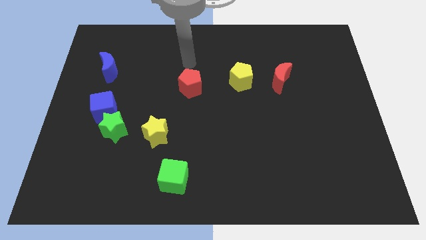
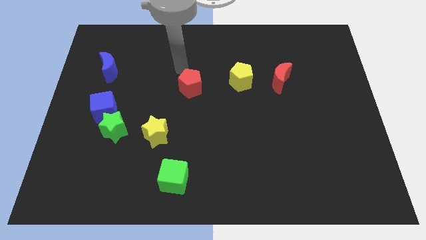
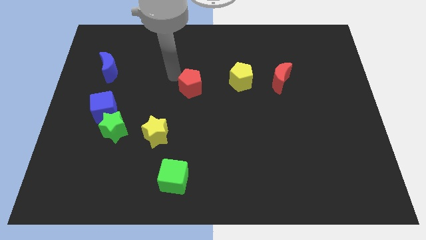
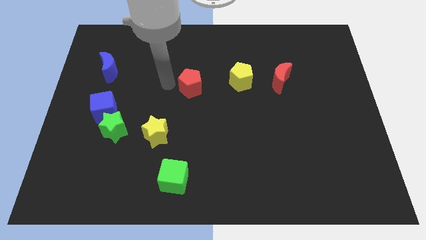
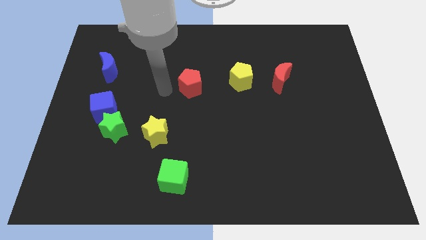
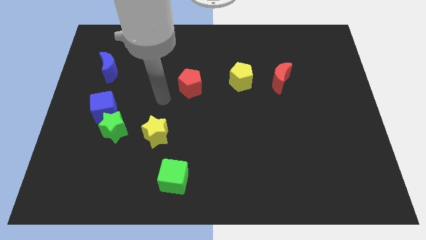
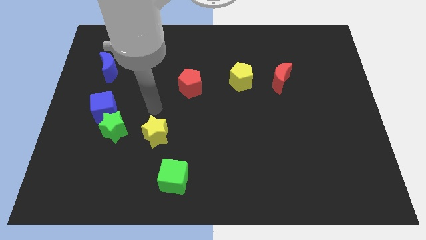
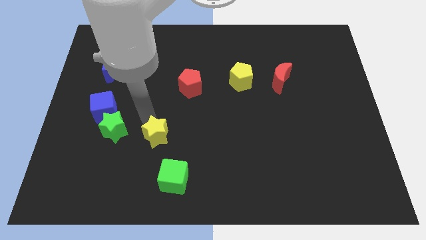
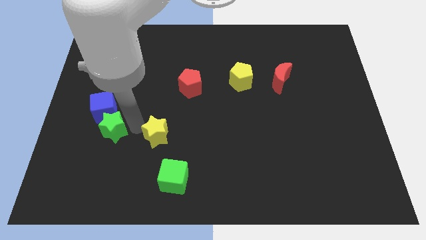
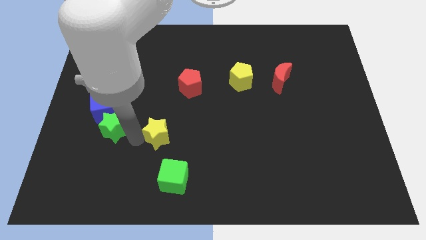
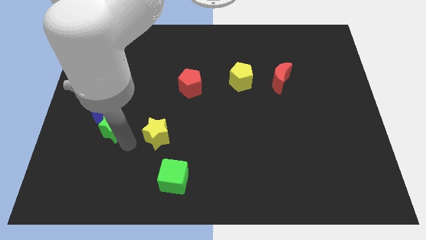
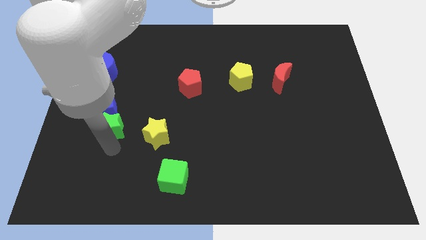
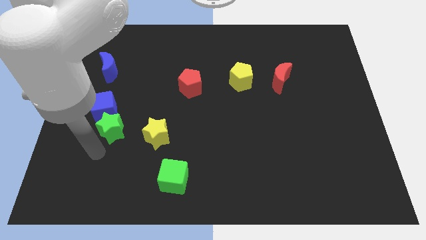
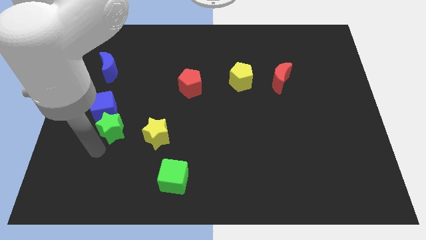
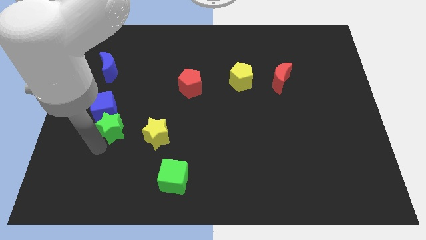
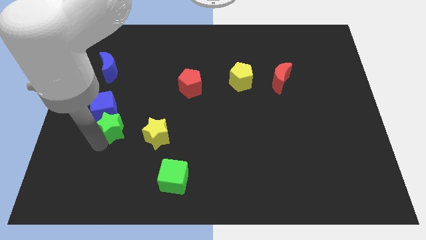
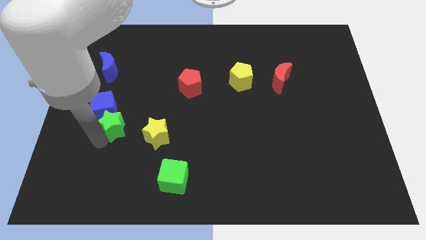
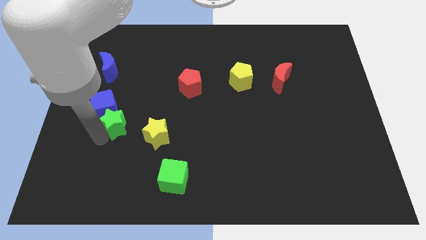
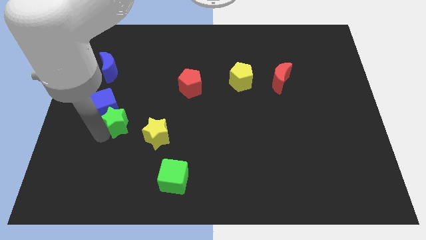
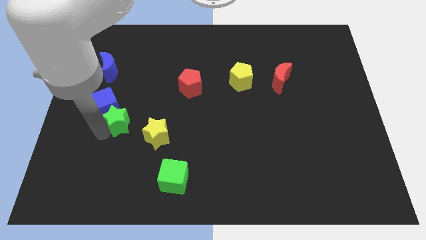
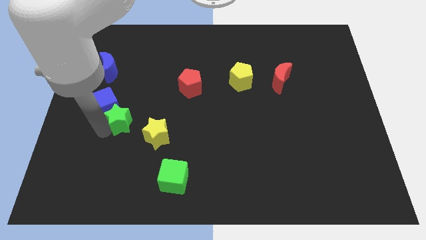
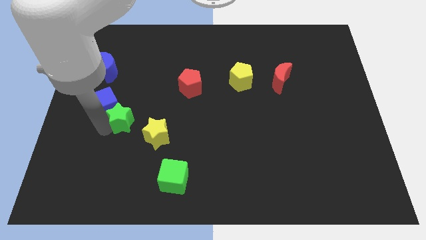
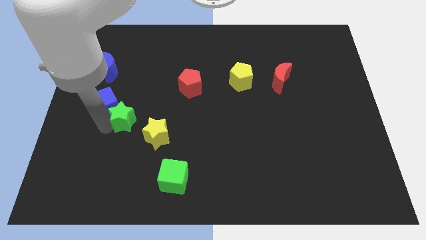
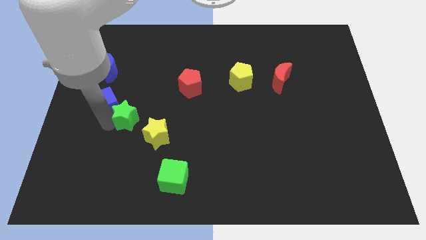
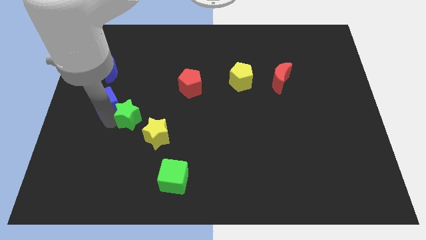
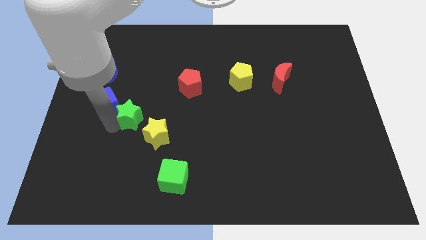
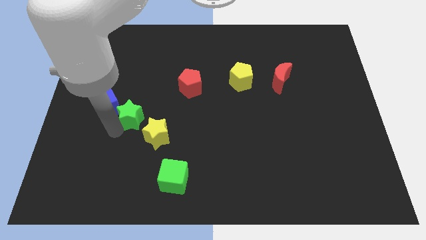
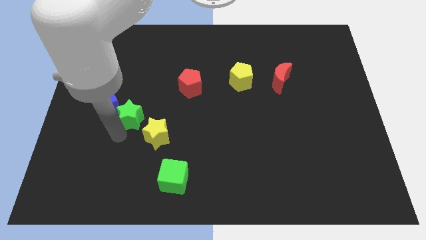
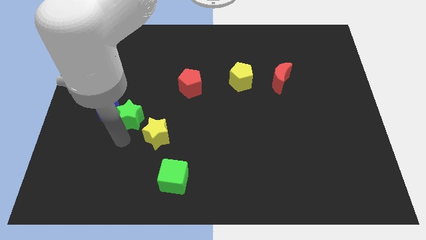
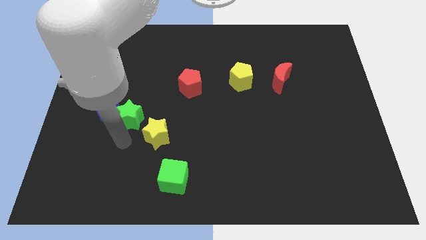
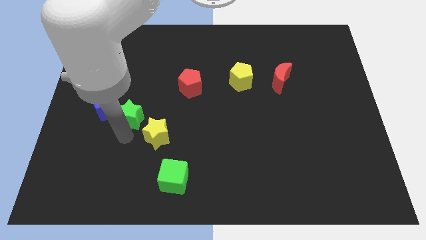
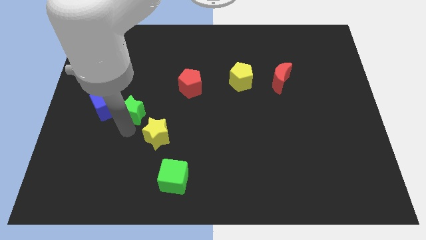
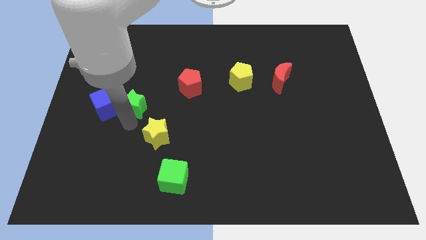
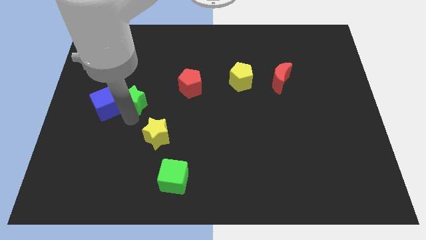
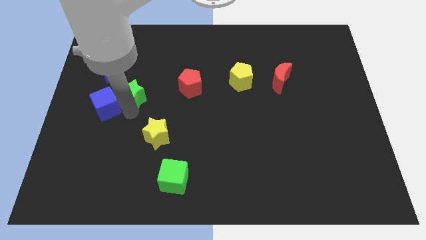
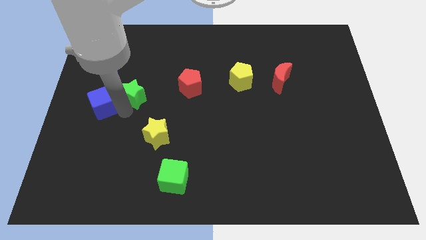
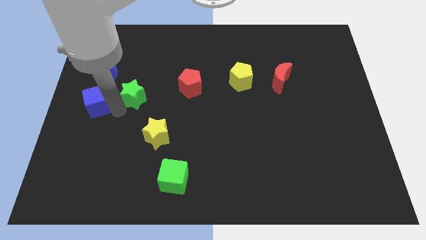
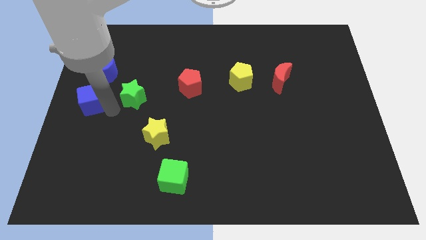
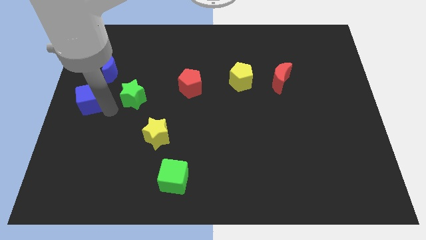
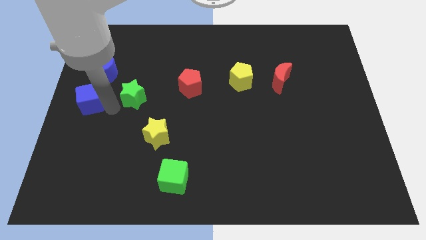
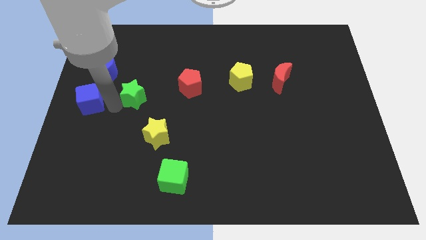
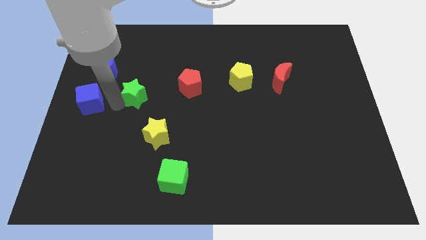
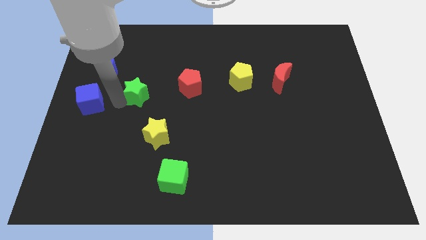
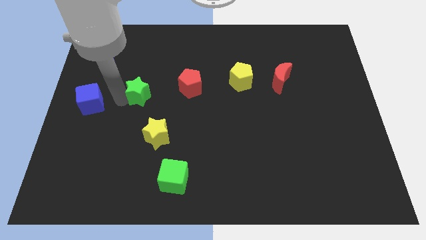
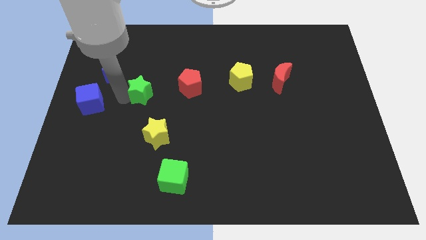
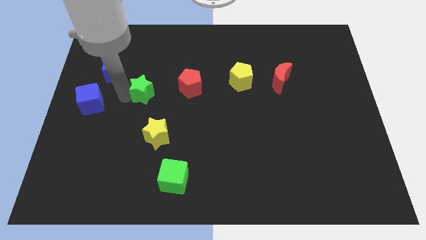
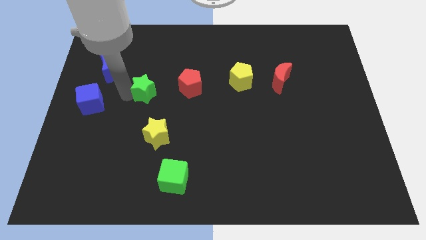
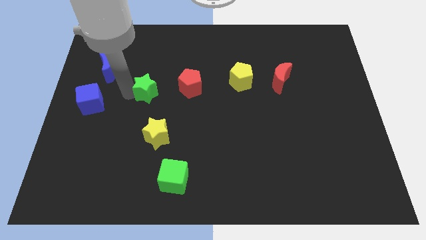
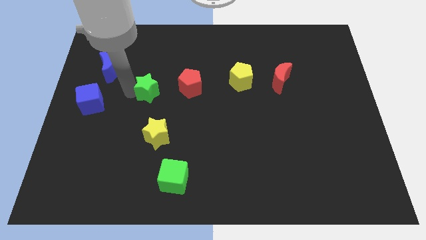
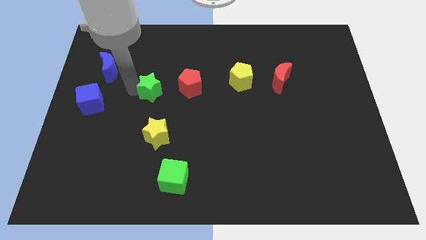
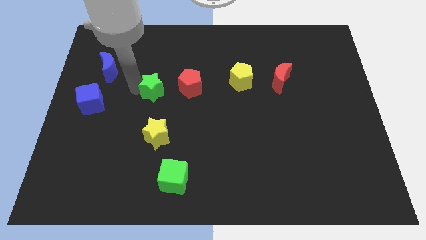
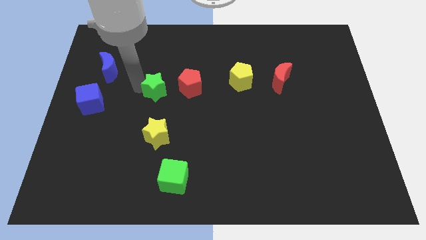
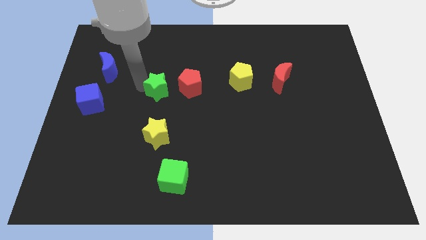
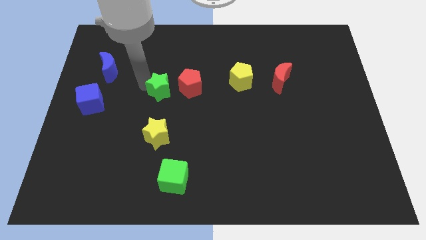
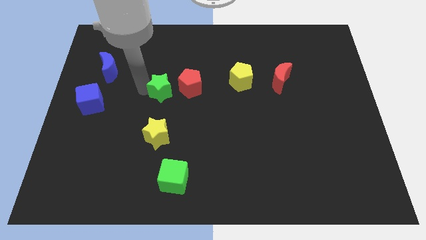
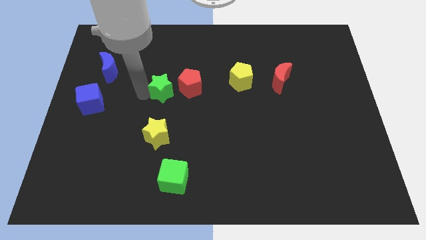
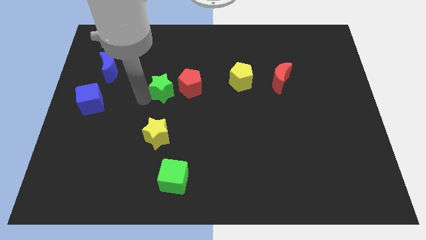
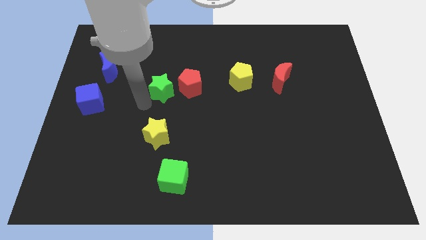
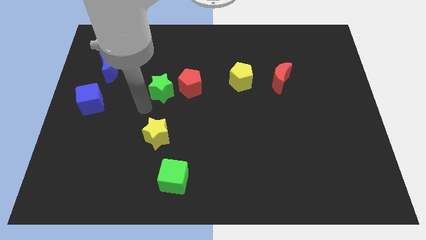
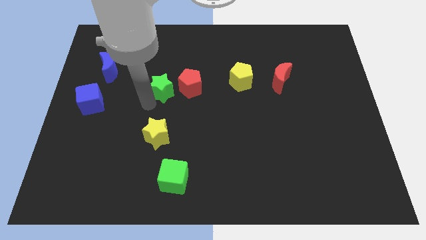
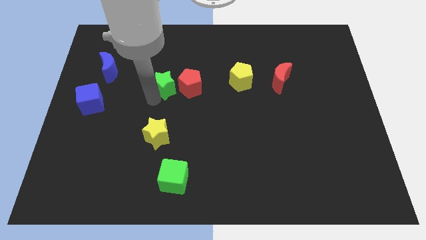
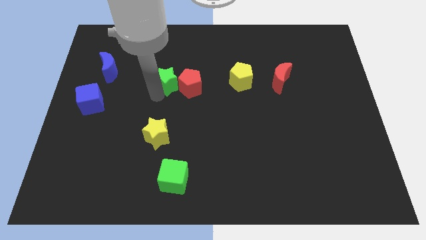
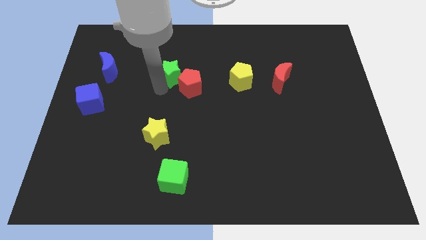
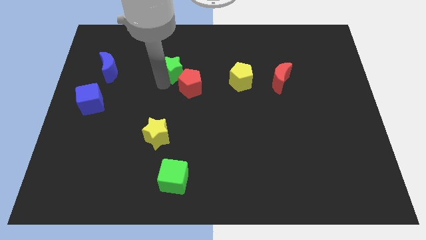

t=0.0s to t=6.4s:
move the green star up and right diagonally

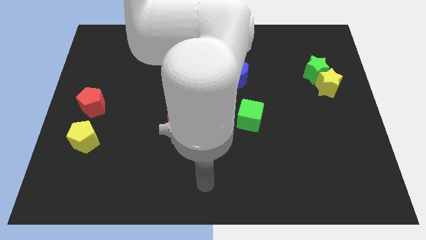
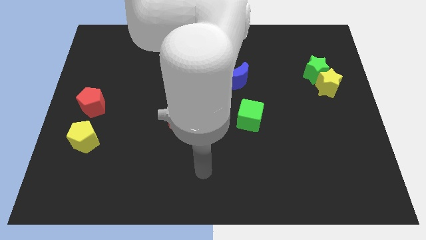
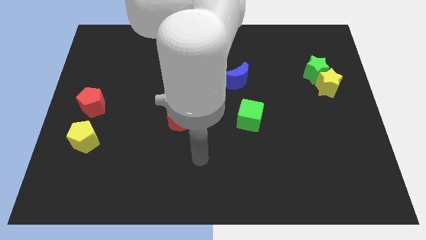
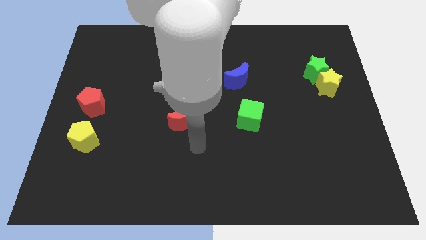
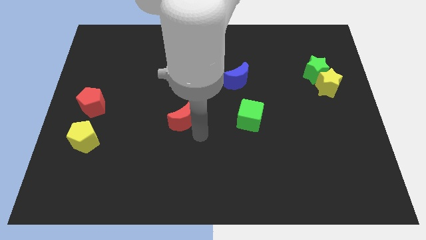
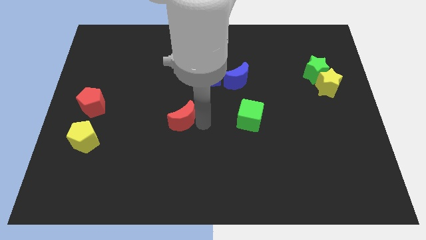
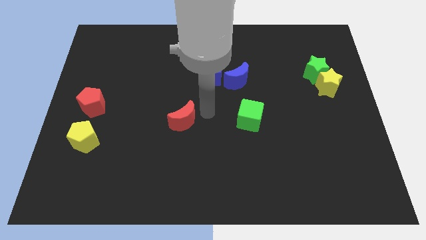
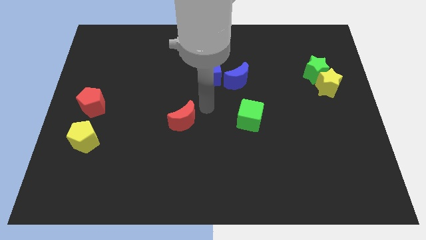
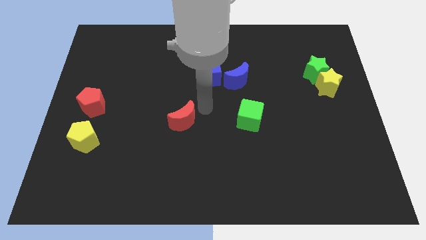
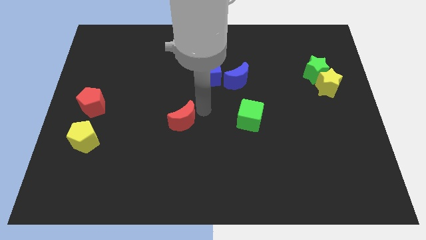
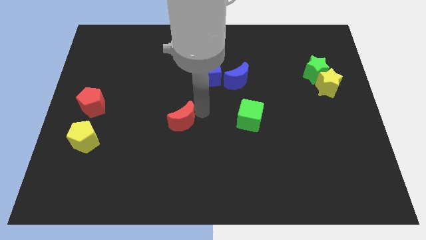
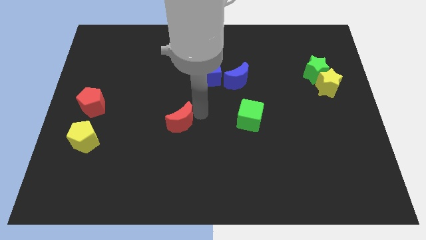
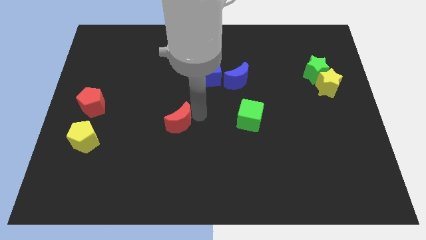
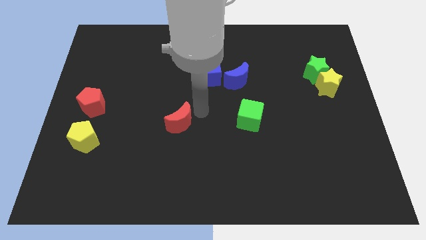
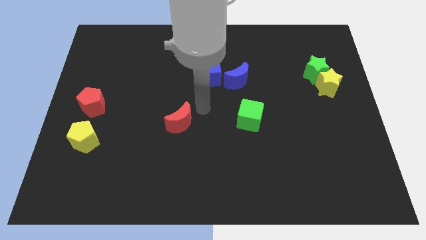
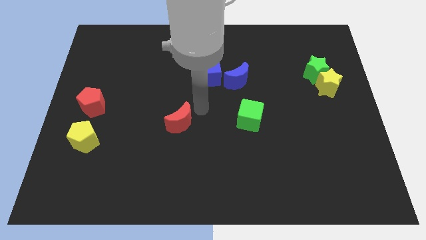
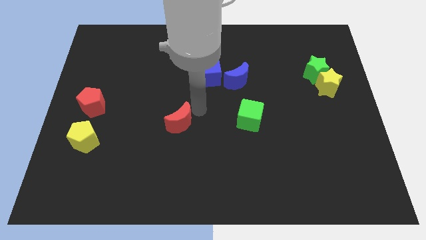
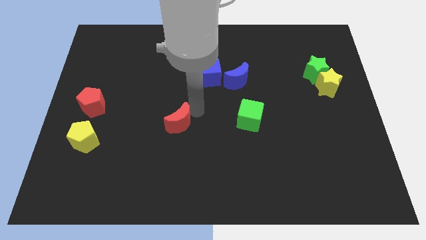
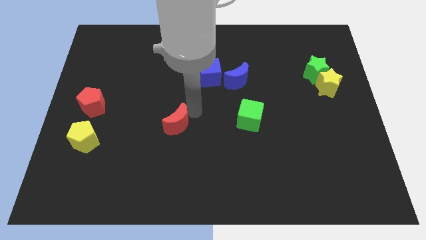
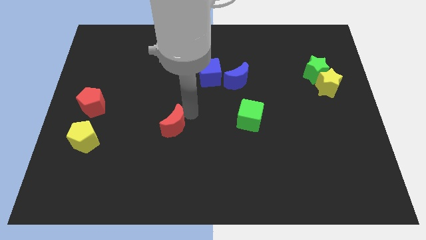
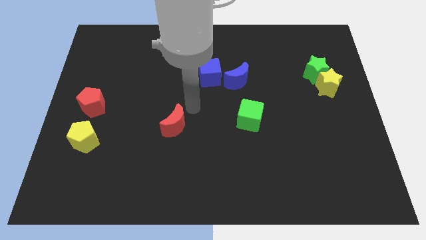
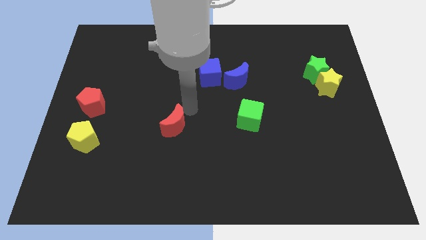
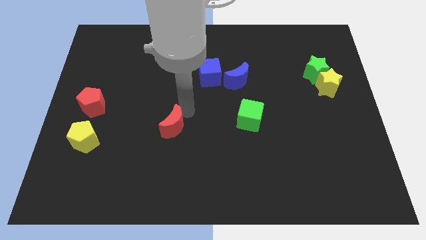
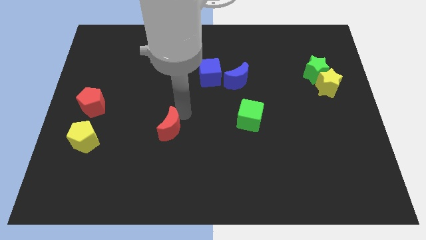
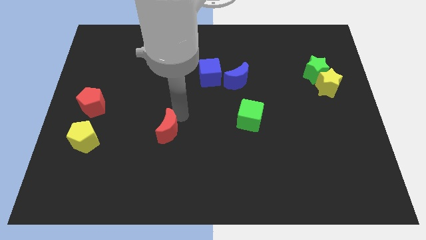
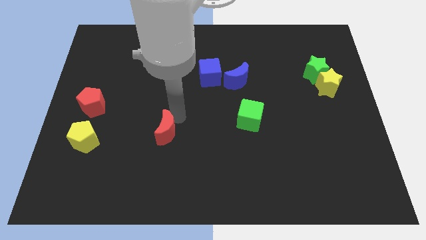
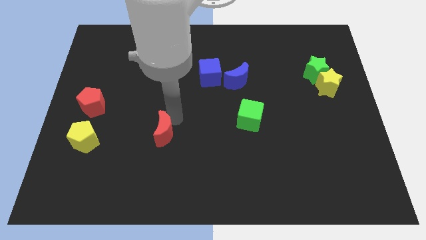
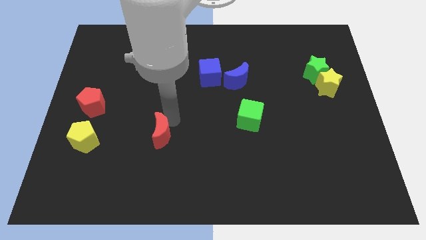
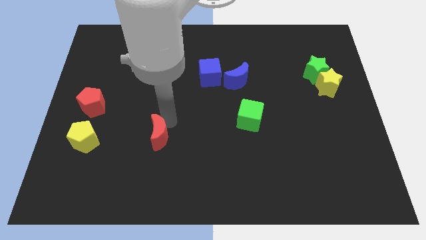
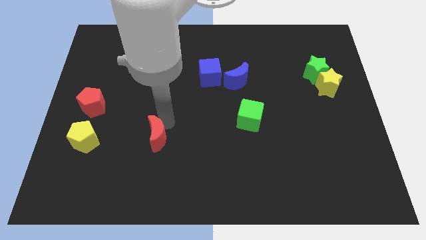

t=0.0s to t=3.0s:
slide the red moon diagonally down and left slightly
